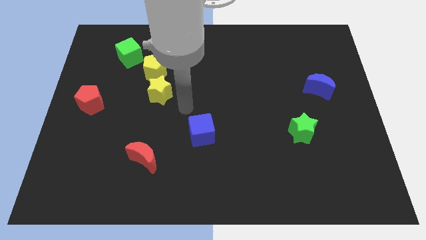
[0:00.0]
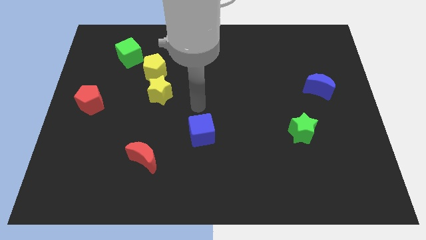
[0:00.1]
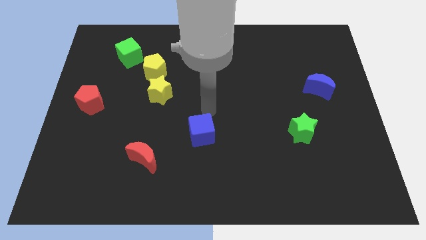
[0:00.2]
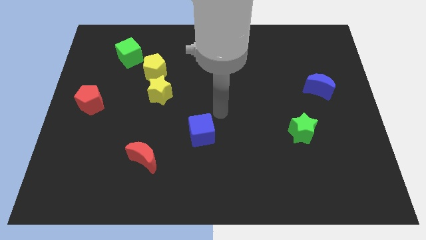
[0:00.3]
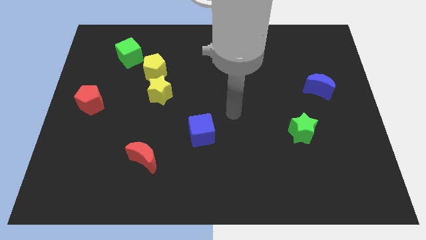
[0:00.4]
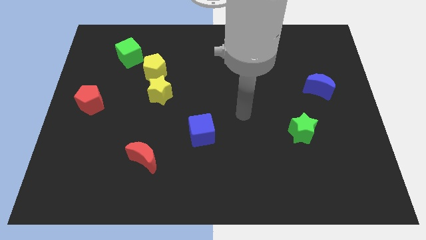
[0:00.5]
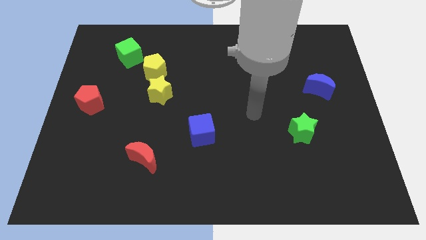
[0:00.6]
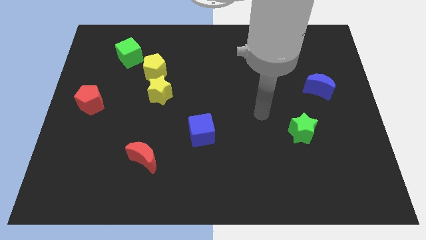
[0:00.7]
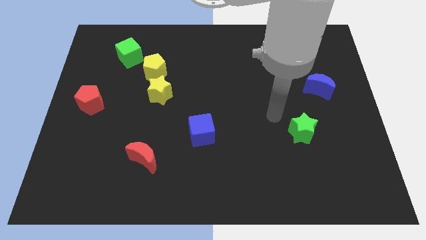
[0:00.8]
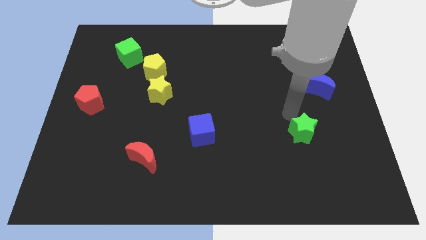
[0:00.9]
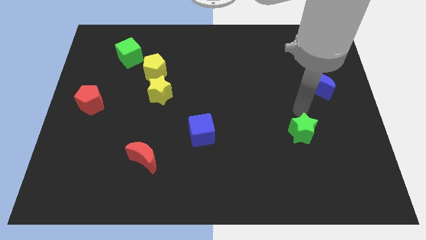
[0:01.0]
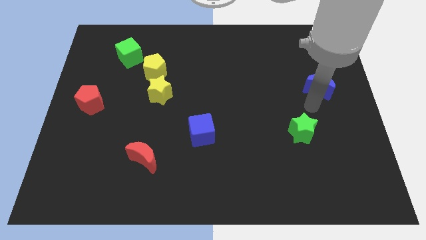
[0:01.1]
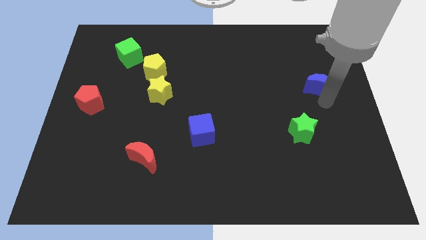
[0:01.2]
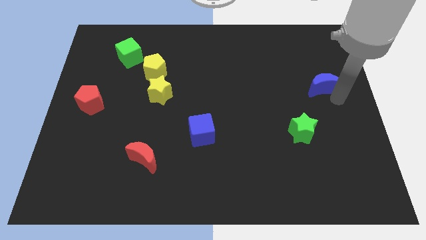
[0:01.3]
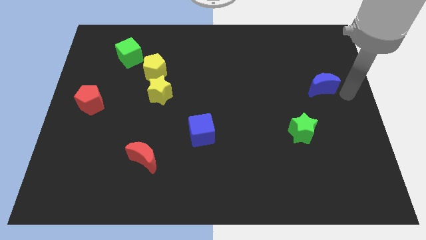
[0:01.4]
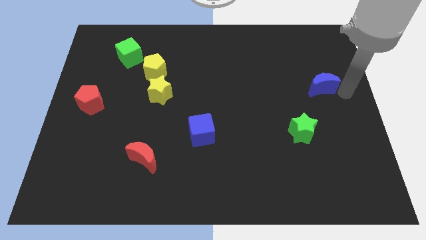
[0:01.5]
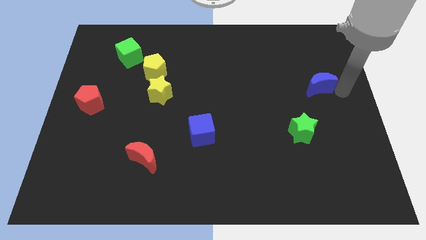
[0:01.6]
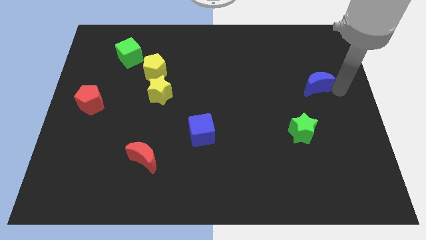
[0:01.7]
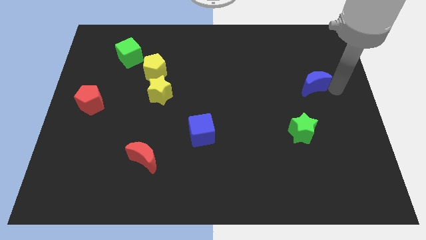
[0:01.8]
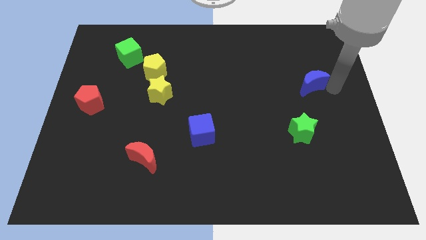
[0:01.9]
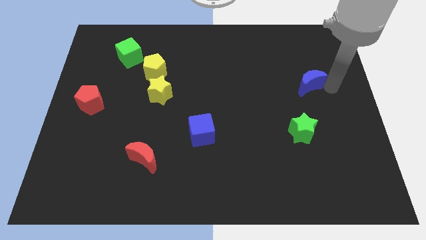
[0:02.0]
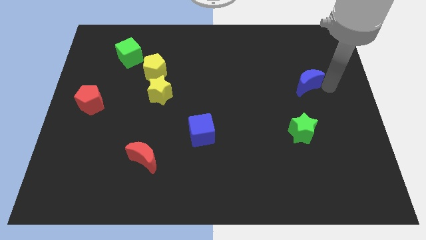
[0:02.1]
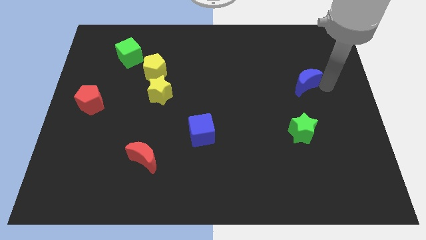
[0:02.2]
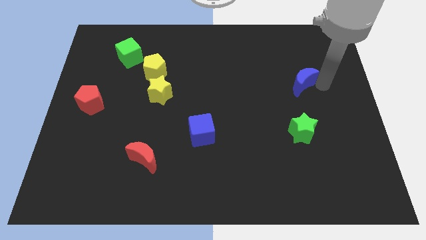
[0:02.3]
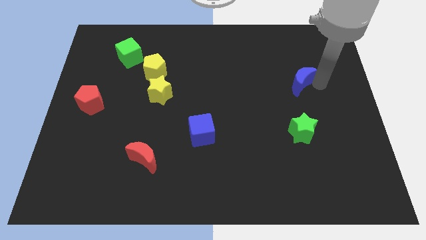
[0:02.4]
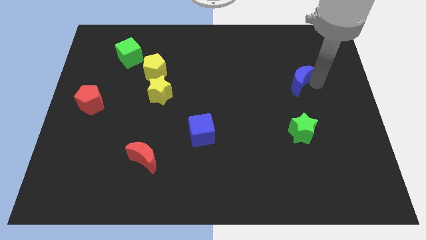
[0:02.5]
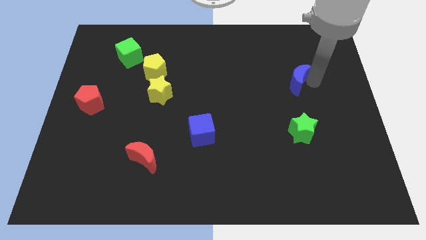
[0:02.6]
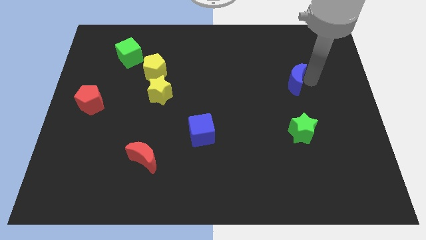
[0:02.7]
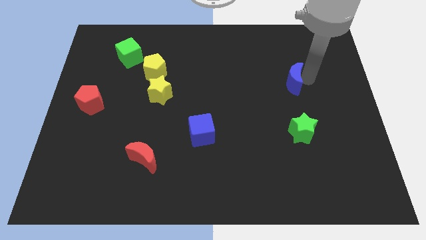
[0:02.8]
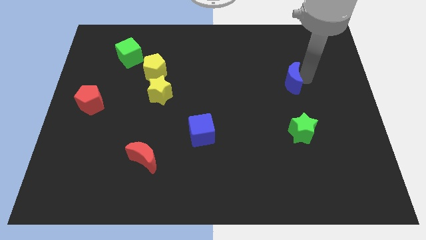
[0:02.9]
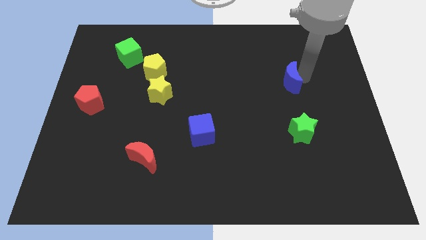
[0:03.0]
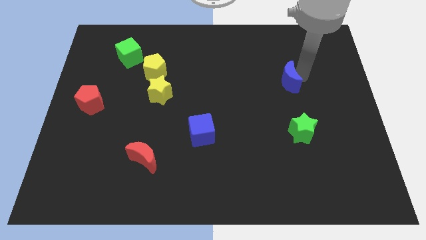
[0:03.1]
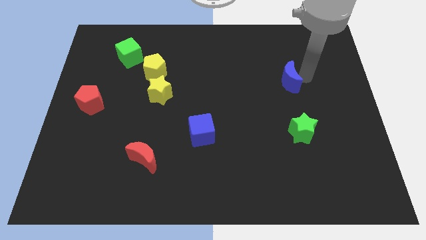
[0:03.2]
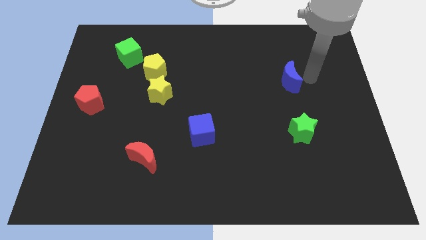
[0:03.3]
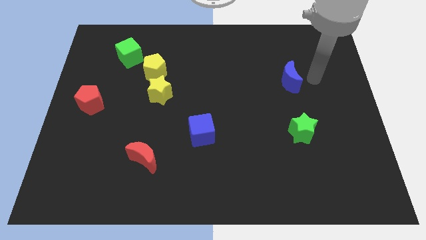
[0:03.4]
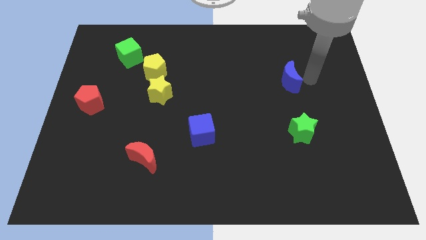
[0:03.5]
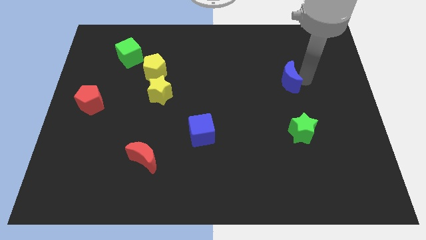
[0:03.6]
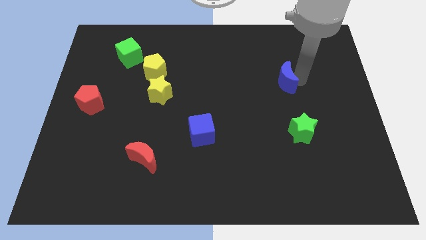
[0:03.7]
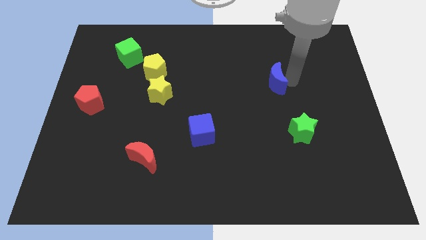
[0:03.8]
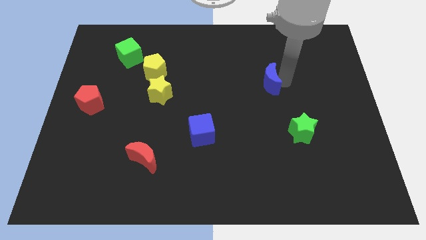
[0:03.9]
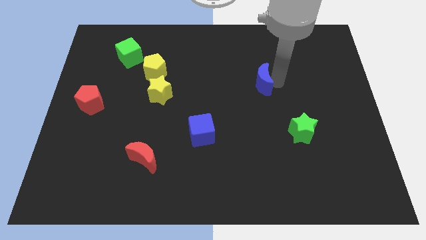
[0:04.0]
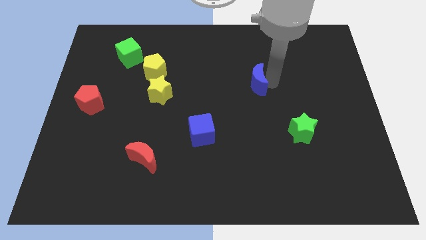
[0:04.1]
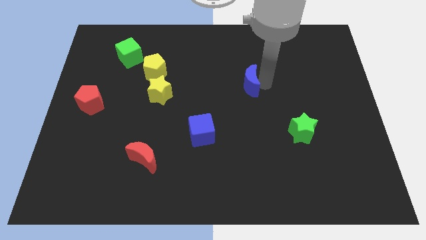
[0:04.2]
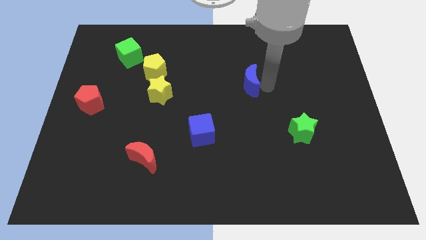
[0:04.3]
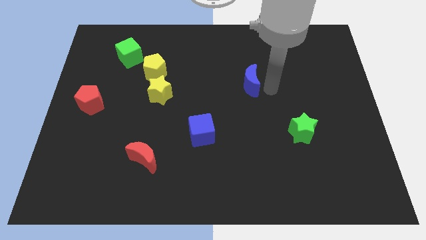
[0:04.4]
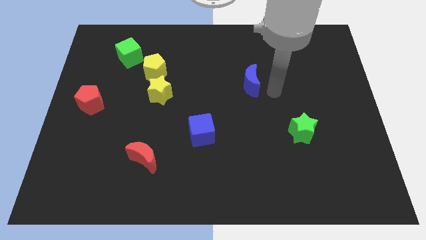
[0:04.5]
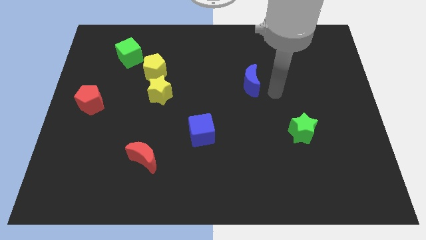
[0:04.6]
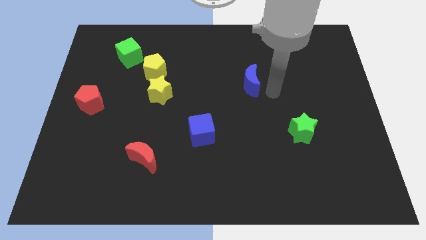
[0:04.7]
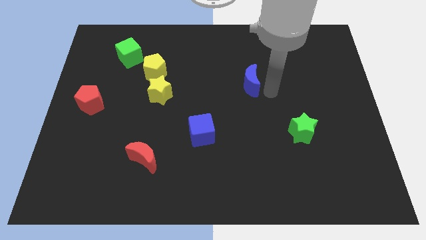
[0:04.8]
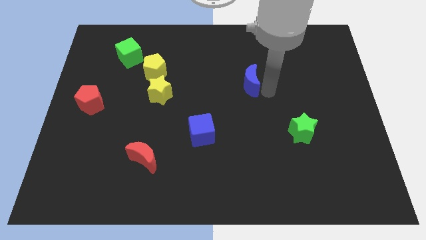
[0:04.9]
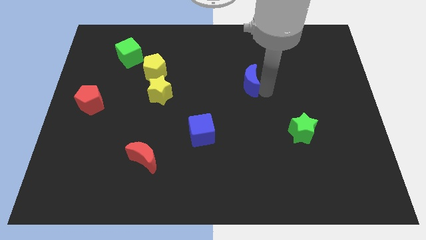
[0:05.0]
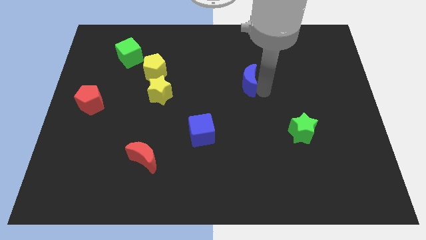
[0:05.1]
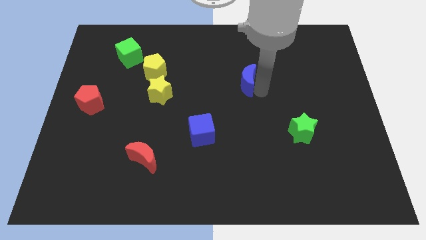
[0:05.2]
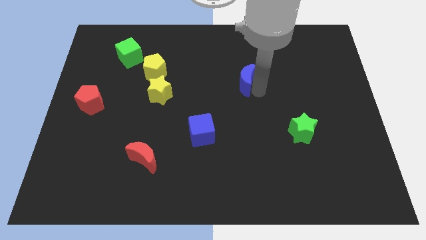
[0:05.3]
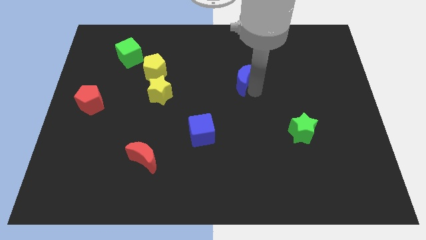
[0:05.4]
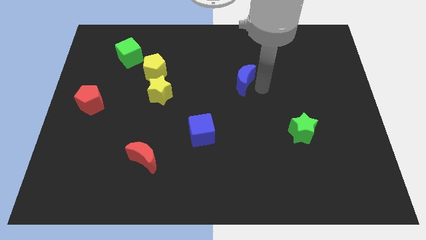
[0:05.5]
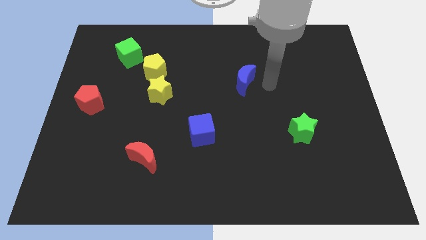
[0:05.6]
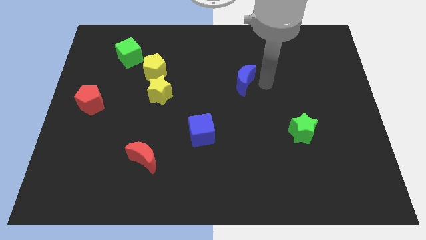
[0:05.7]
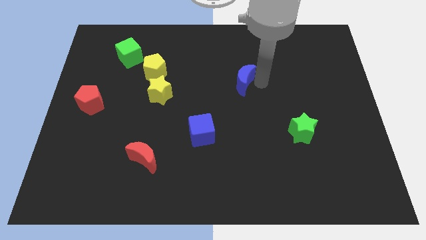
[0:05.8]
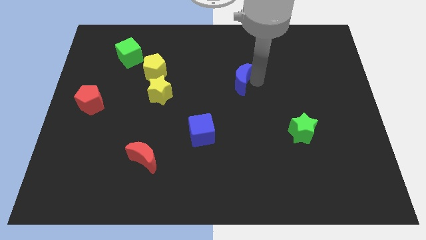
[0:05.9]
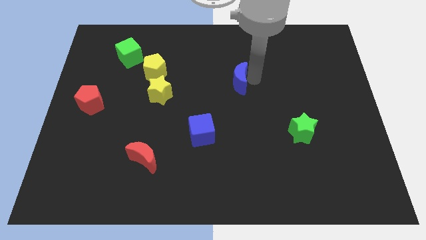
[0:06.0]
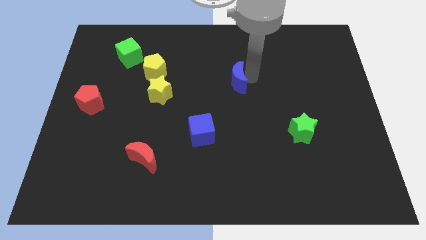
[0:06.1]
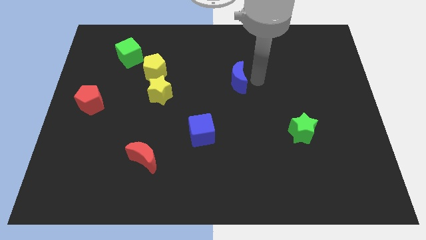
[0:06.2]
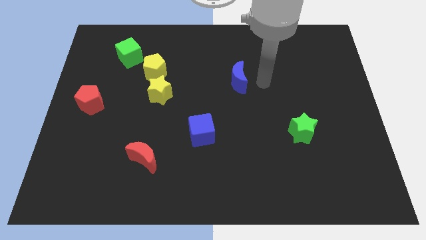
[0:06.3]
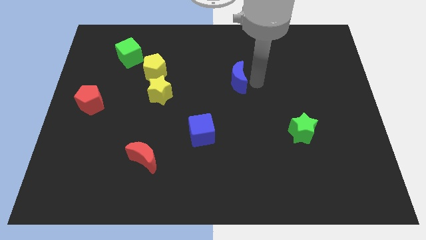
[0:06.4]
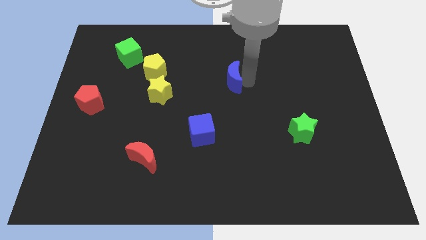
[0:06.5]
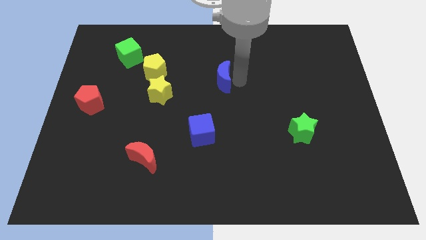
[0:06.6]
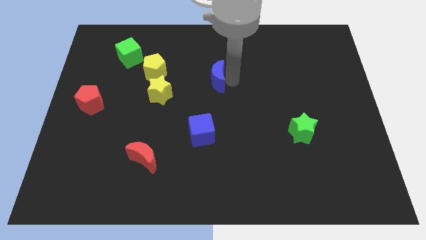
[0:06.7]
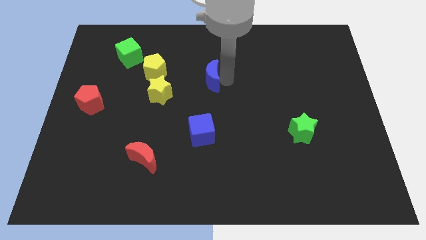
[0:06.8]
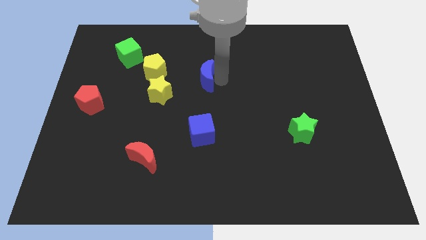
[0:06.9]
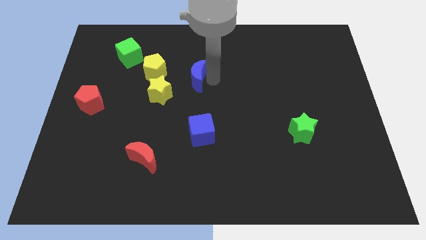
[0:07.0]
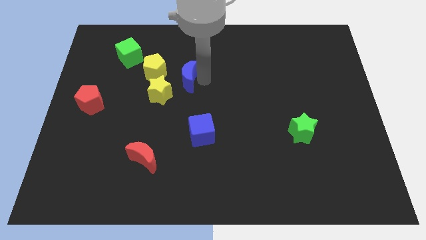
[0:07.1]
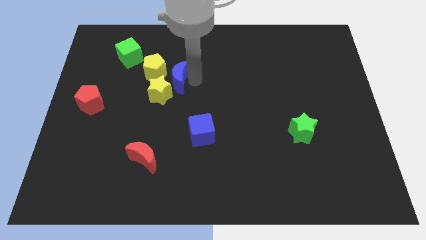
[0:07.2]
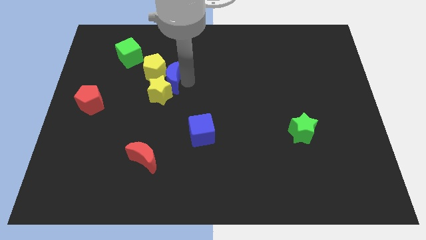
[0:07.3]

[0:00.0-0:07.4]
move the blue moon to the yellow pentagon
